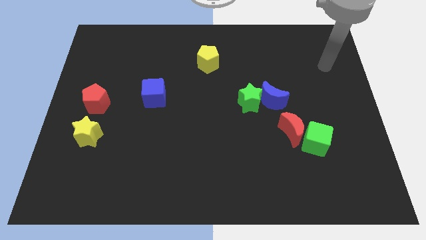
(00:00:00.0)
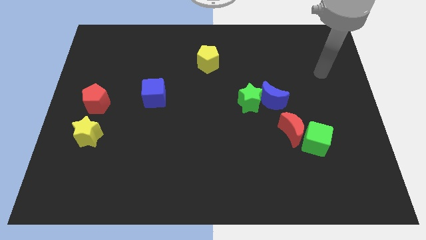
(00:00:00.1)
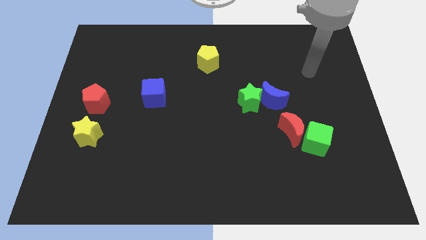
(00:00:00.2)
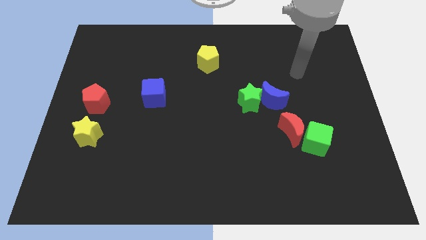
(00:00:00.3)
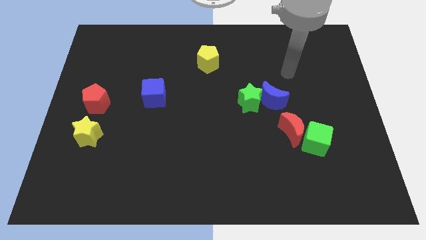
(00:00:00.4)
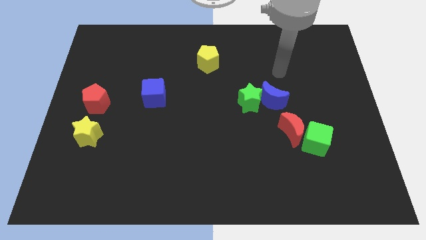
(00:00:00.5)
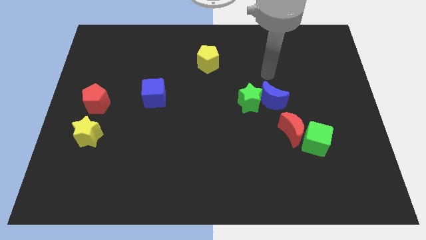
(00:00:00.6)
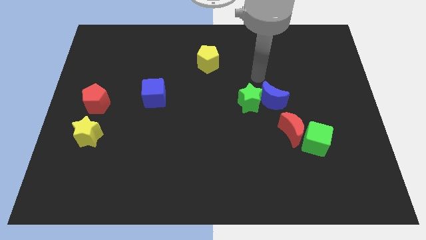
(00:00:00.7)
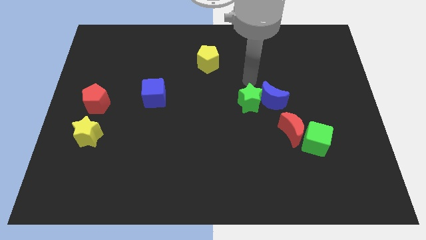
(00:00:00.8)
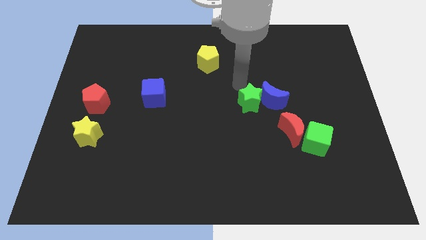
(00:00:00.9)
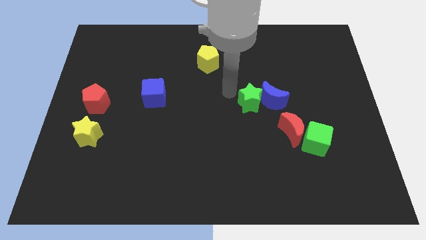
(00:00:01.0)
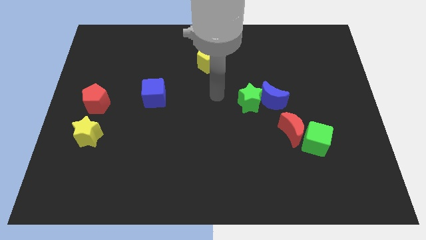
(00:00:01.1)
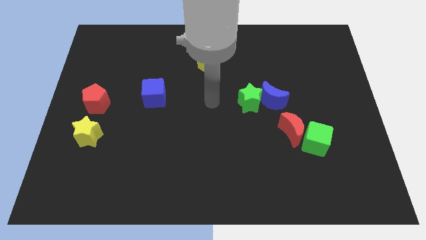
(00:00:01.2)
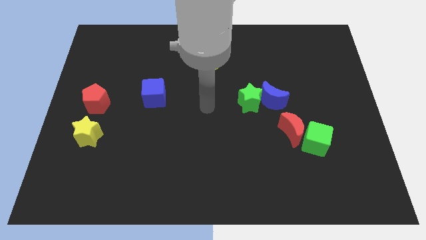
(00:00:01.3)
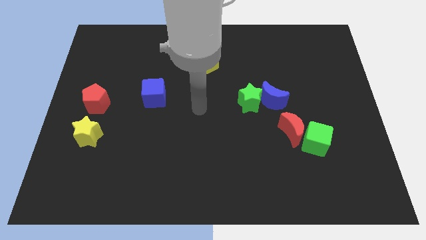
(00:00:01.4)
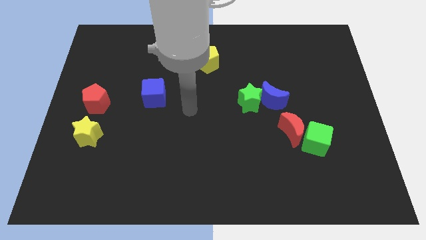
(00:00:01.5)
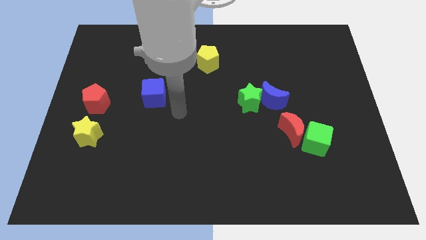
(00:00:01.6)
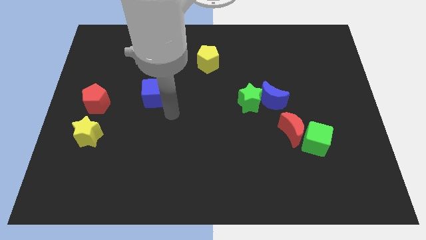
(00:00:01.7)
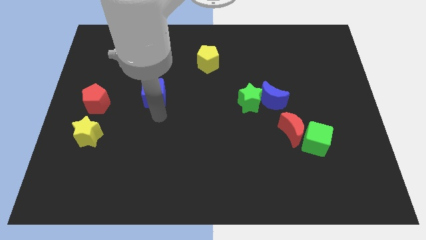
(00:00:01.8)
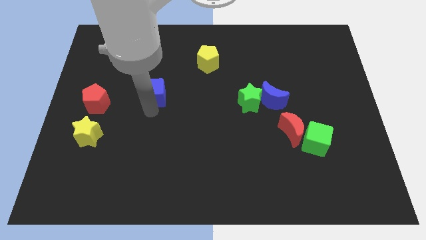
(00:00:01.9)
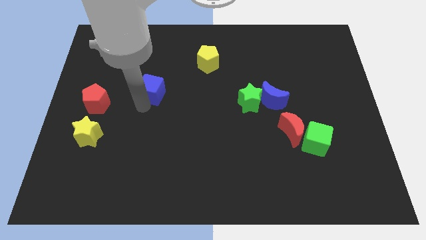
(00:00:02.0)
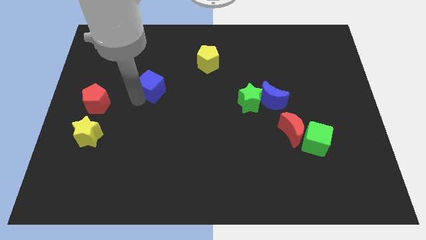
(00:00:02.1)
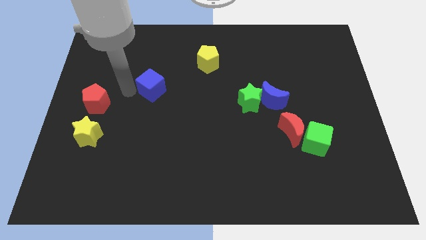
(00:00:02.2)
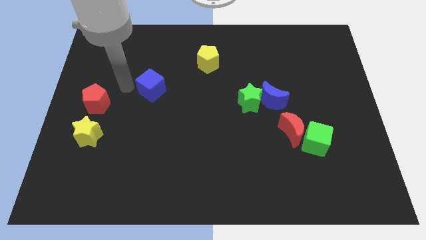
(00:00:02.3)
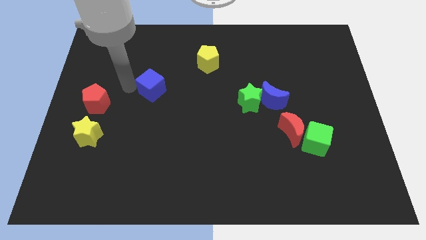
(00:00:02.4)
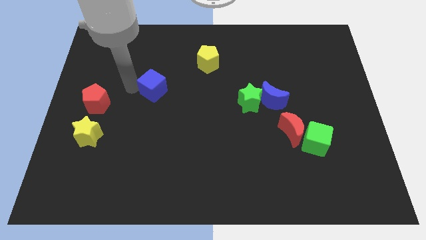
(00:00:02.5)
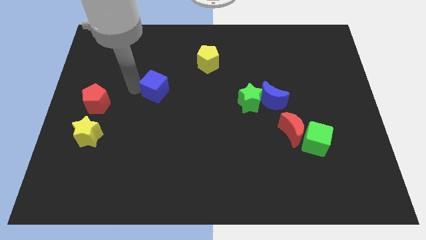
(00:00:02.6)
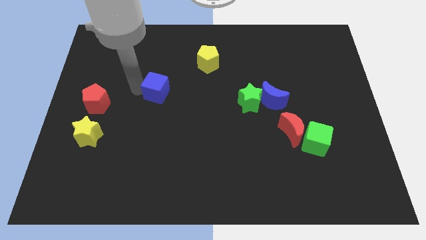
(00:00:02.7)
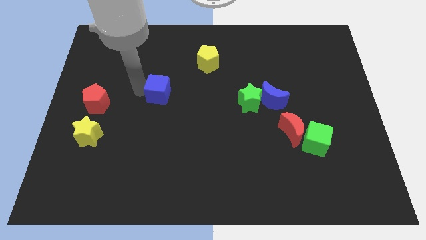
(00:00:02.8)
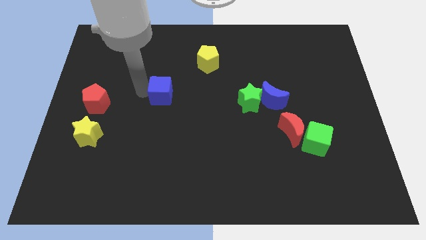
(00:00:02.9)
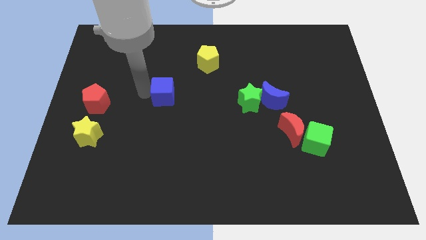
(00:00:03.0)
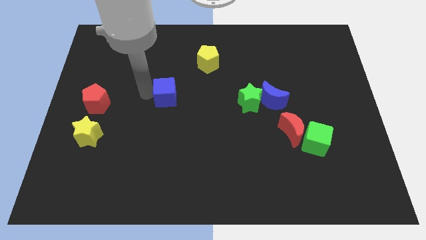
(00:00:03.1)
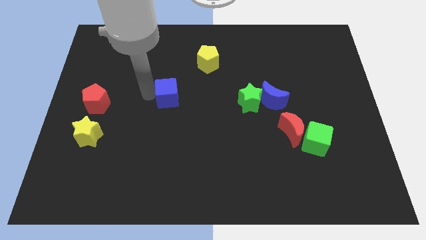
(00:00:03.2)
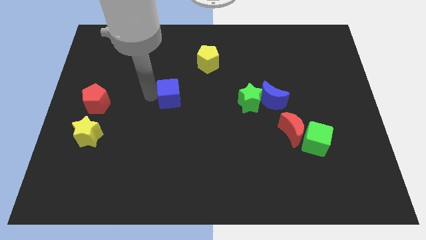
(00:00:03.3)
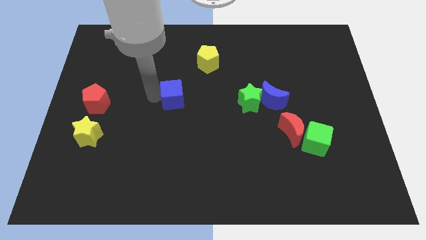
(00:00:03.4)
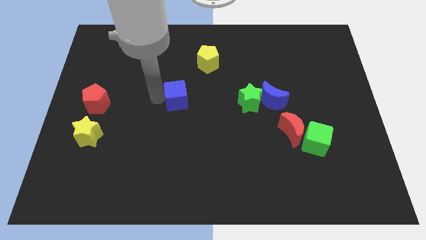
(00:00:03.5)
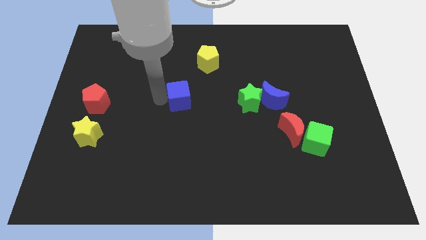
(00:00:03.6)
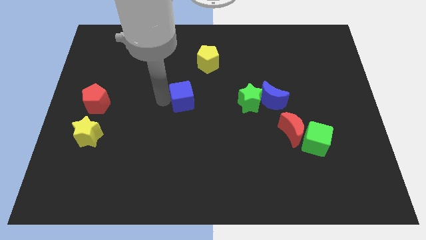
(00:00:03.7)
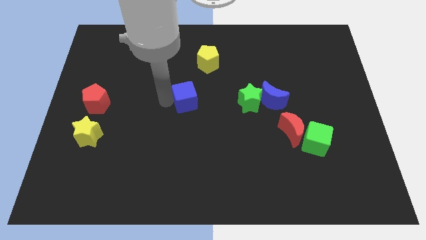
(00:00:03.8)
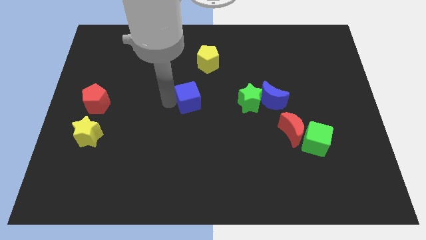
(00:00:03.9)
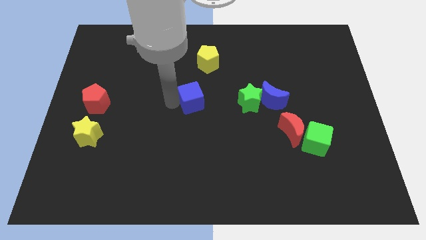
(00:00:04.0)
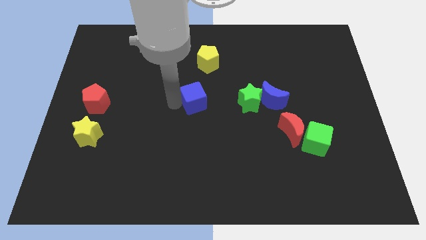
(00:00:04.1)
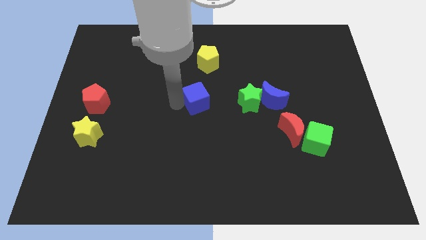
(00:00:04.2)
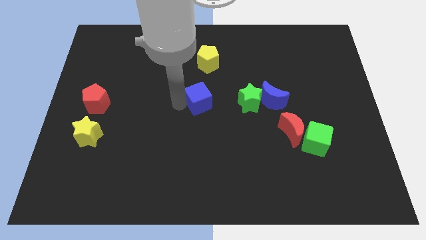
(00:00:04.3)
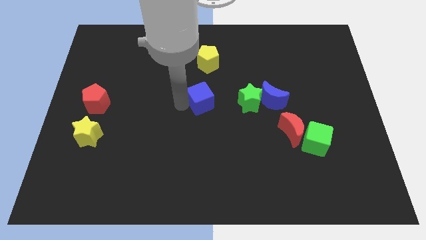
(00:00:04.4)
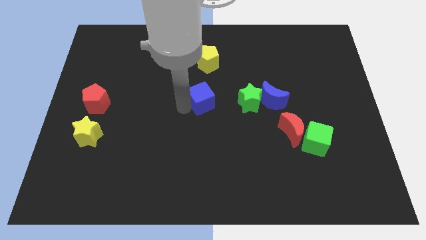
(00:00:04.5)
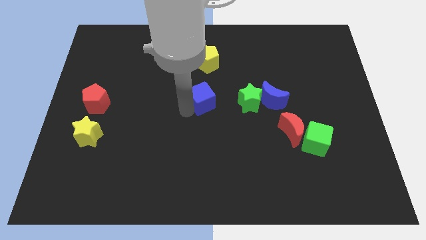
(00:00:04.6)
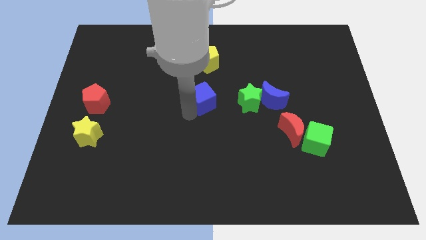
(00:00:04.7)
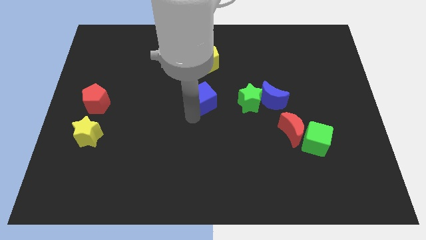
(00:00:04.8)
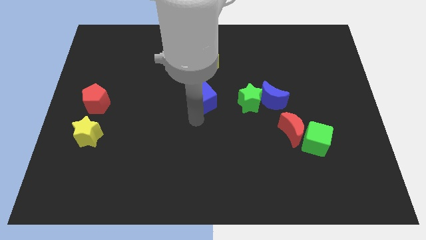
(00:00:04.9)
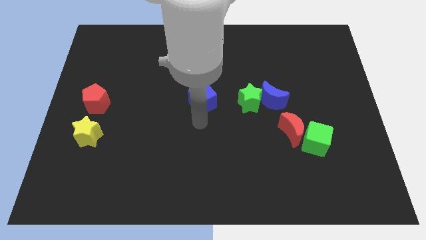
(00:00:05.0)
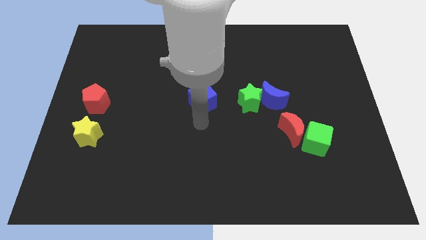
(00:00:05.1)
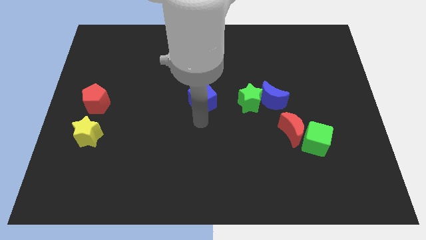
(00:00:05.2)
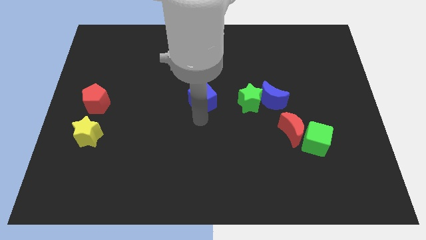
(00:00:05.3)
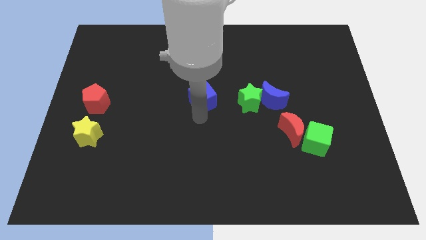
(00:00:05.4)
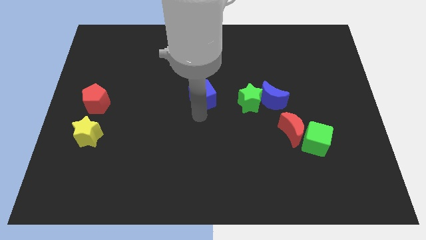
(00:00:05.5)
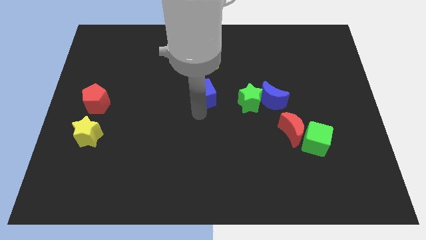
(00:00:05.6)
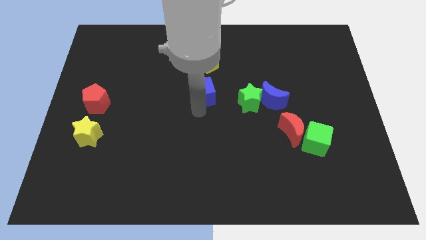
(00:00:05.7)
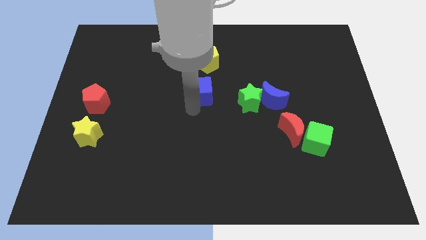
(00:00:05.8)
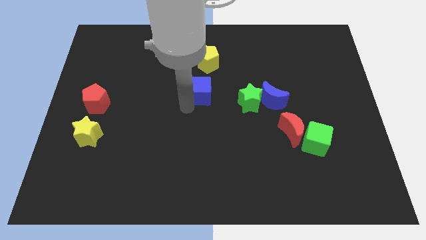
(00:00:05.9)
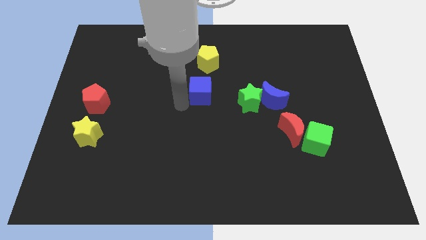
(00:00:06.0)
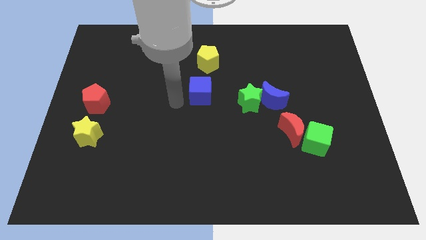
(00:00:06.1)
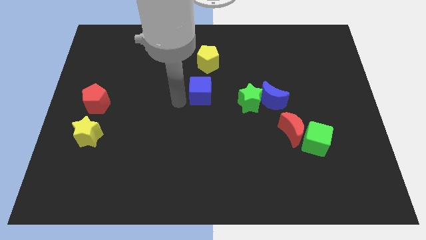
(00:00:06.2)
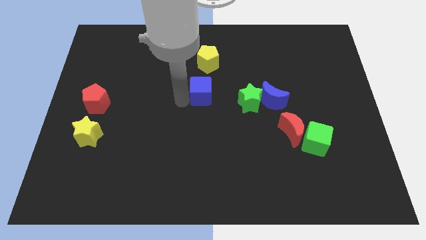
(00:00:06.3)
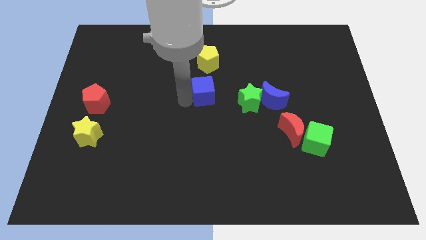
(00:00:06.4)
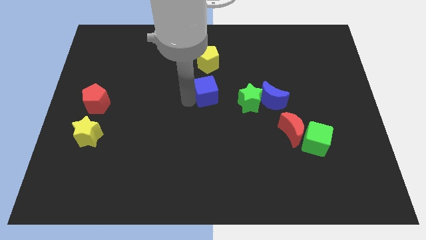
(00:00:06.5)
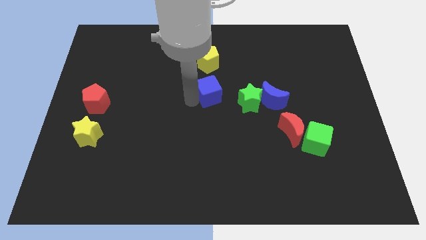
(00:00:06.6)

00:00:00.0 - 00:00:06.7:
put the blue cube to the top left of the green star

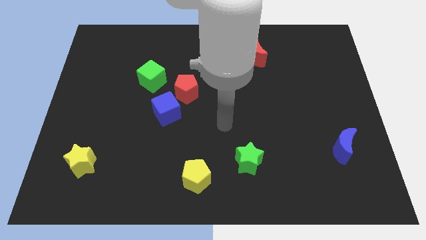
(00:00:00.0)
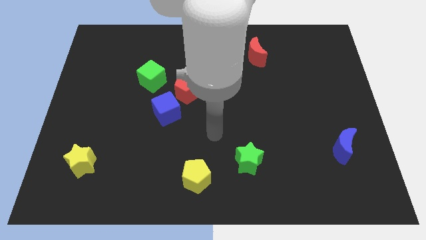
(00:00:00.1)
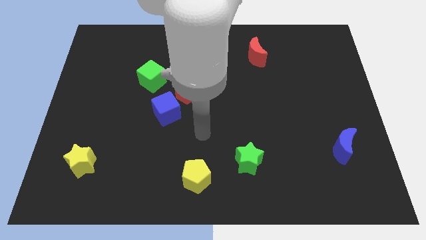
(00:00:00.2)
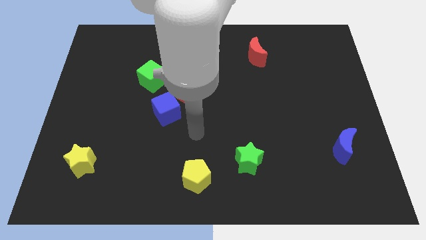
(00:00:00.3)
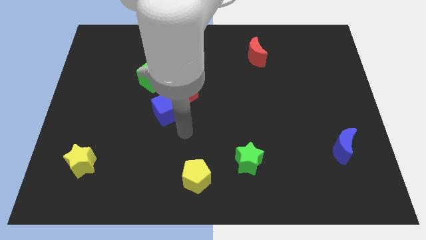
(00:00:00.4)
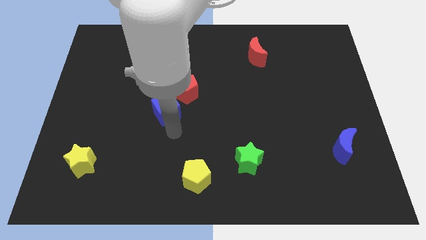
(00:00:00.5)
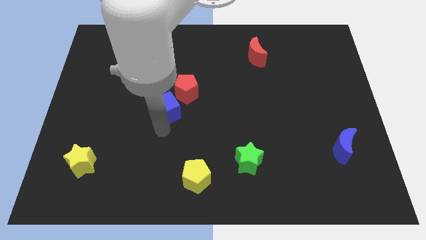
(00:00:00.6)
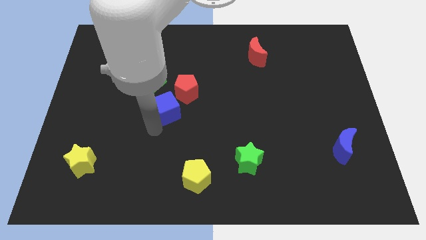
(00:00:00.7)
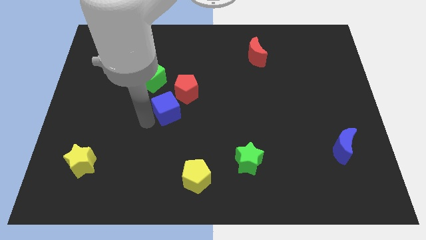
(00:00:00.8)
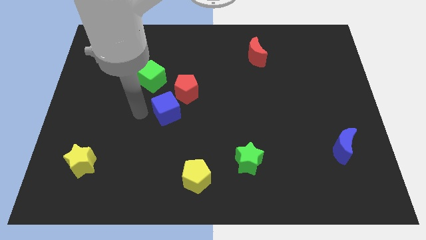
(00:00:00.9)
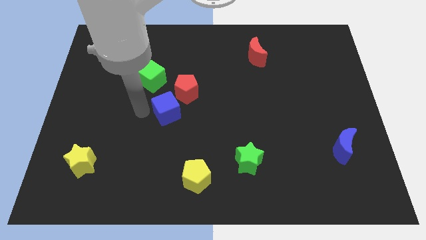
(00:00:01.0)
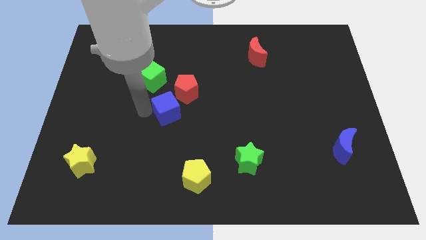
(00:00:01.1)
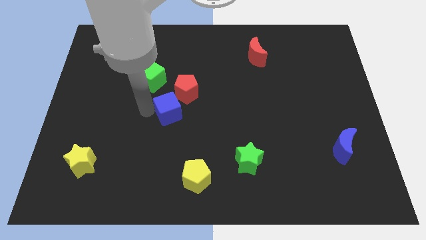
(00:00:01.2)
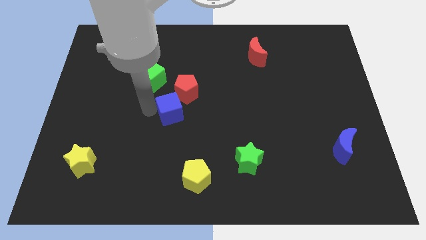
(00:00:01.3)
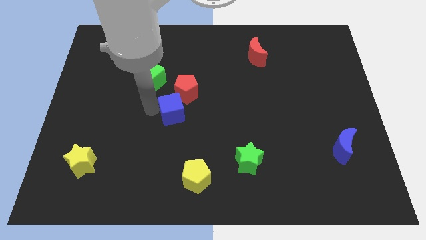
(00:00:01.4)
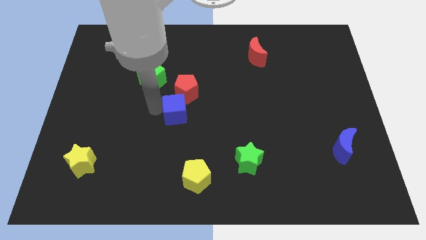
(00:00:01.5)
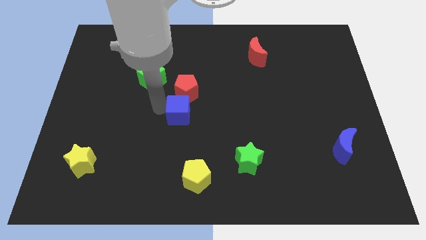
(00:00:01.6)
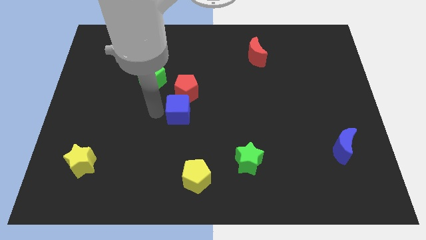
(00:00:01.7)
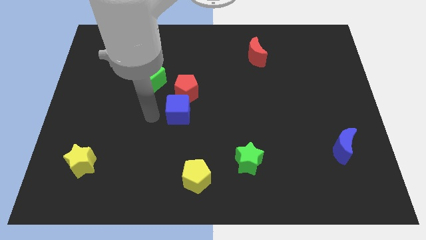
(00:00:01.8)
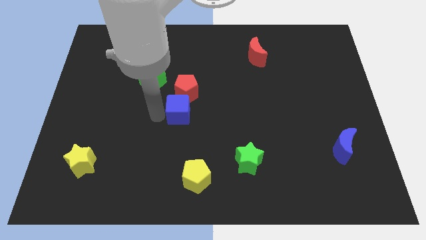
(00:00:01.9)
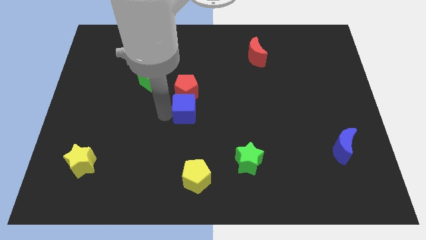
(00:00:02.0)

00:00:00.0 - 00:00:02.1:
push the blue cube diagonally down and to the right of the red pentagon
